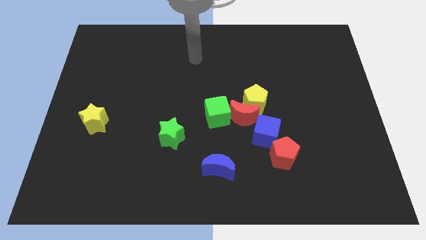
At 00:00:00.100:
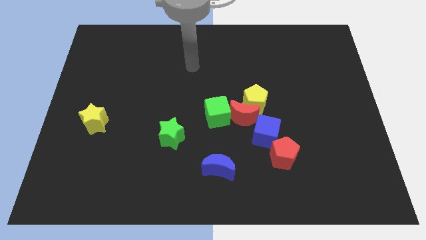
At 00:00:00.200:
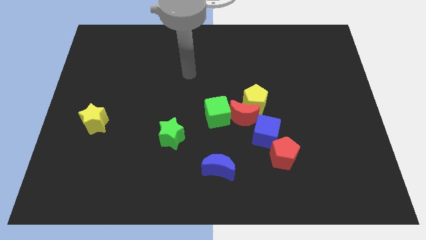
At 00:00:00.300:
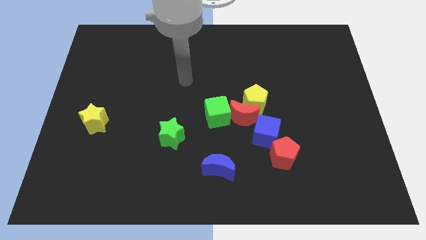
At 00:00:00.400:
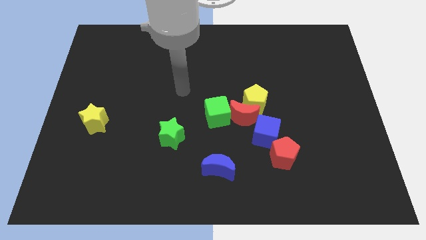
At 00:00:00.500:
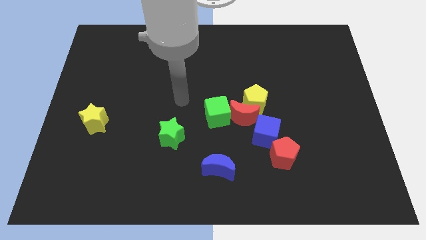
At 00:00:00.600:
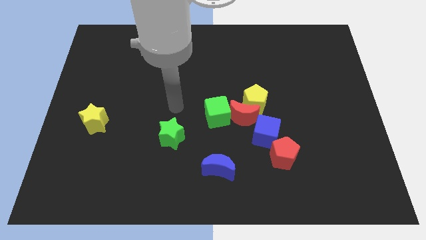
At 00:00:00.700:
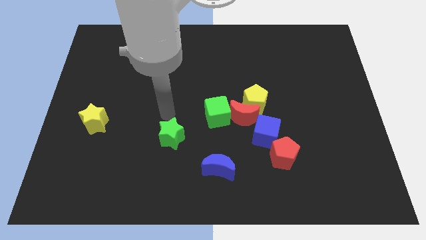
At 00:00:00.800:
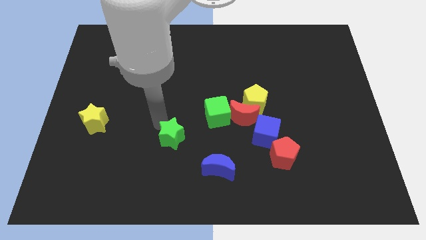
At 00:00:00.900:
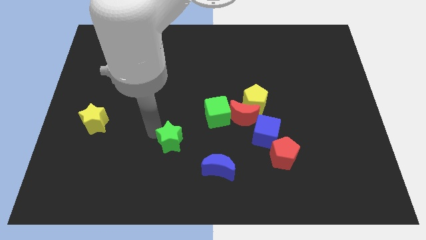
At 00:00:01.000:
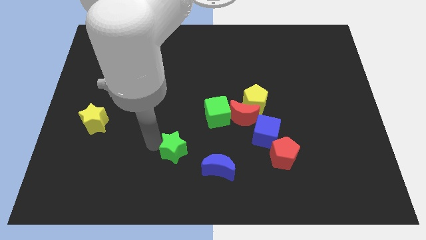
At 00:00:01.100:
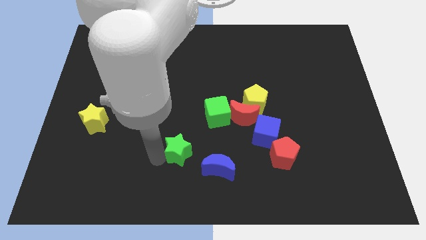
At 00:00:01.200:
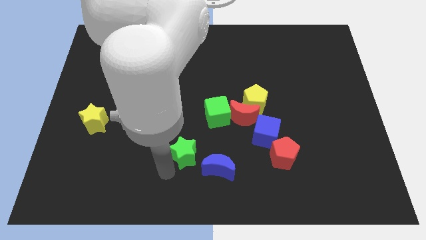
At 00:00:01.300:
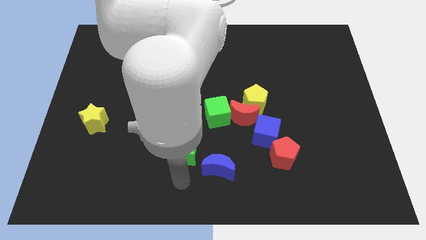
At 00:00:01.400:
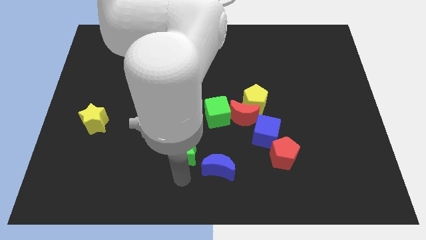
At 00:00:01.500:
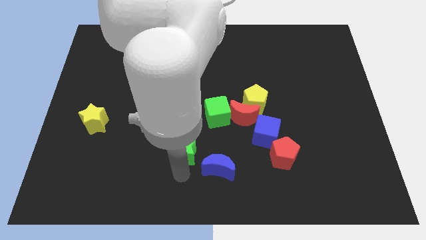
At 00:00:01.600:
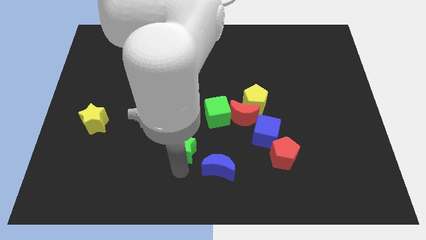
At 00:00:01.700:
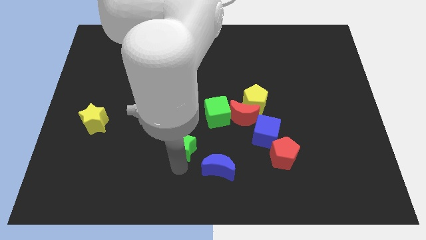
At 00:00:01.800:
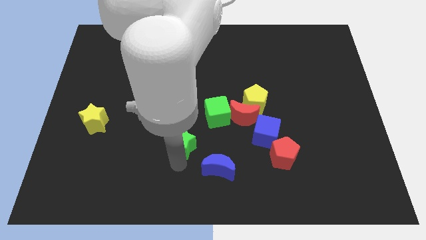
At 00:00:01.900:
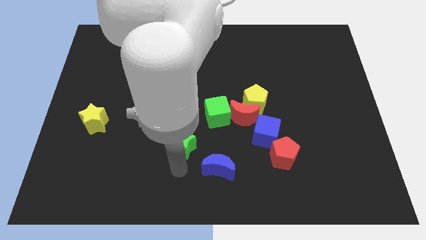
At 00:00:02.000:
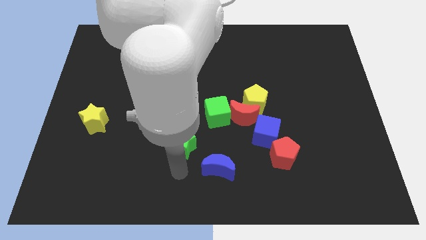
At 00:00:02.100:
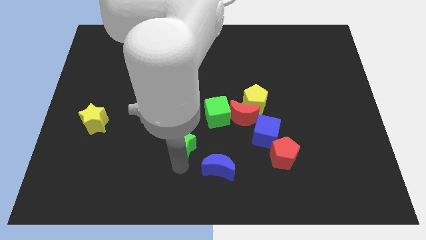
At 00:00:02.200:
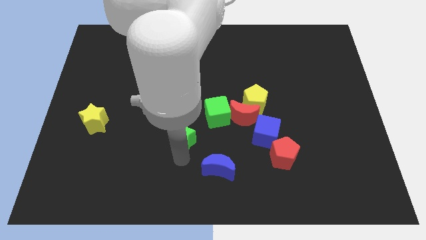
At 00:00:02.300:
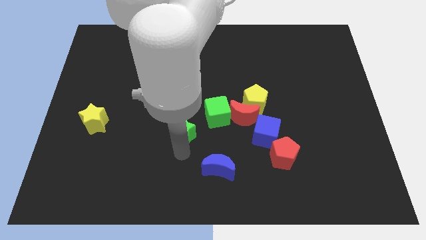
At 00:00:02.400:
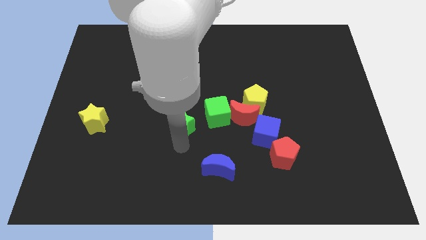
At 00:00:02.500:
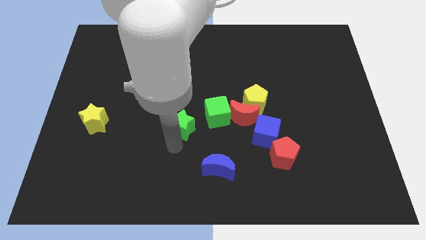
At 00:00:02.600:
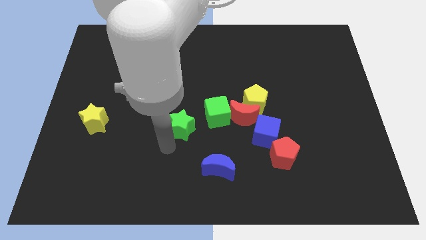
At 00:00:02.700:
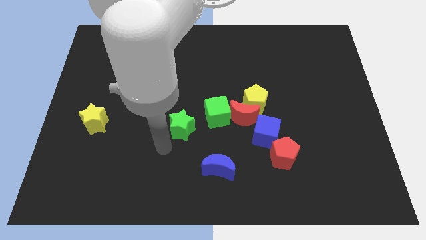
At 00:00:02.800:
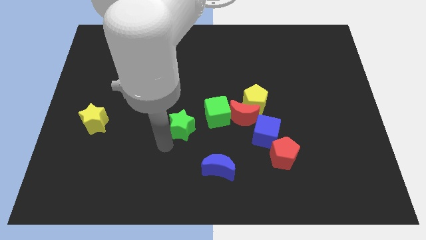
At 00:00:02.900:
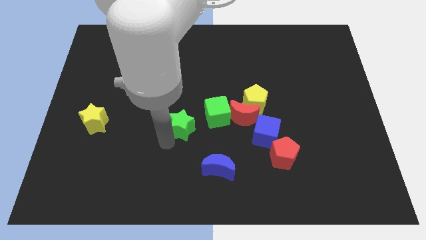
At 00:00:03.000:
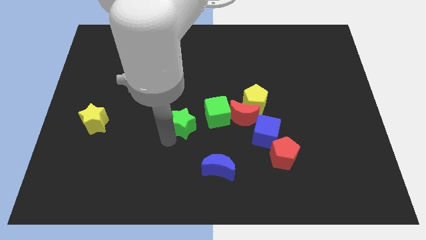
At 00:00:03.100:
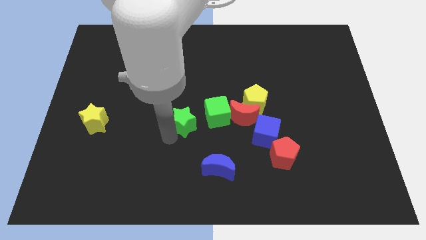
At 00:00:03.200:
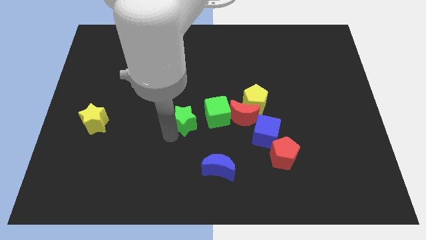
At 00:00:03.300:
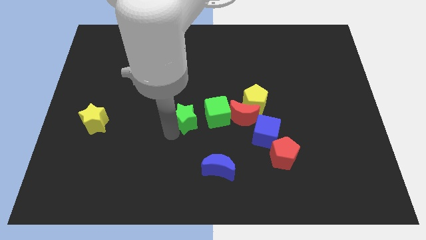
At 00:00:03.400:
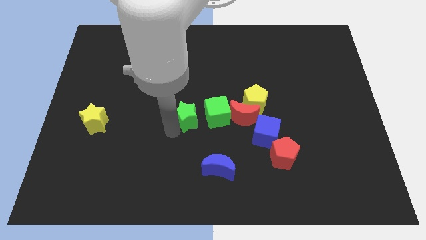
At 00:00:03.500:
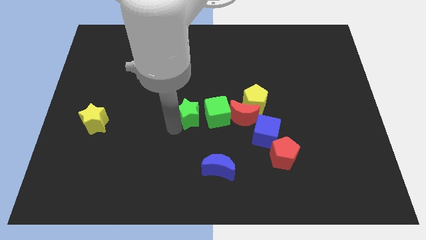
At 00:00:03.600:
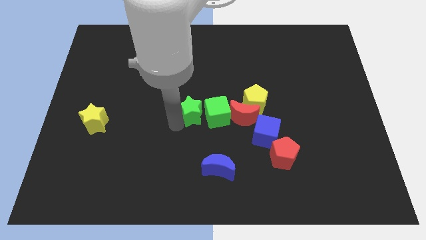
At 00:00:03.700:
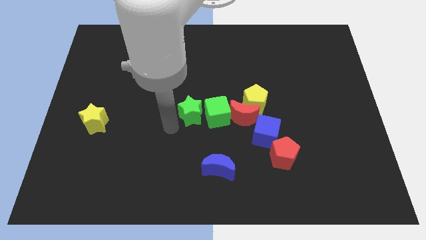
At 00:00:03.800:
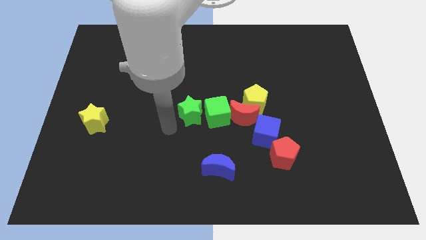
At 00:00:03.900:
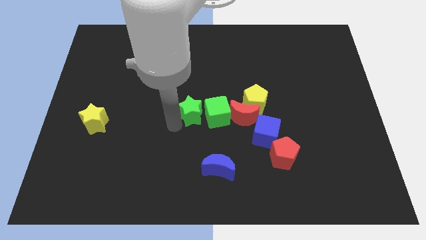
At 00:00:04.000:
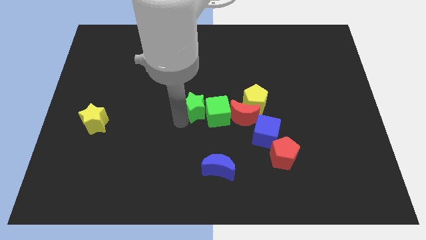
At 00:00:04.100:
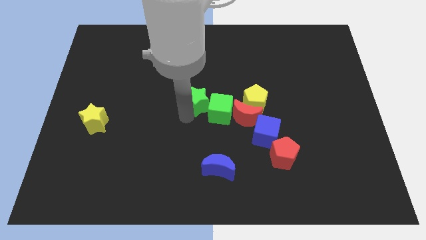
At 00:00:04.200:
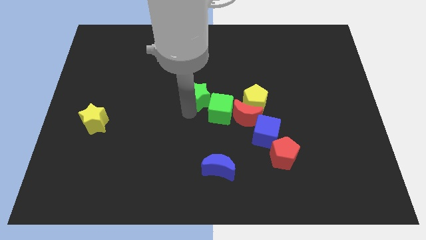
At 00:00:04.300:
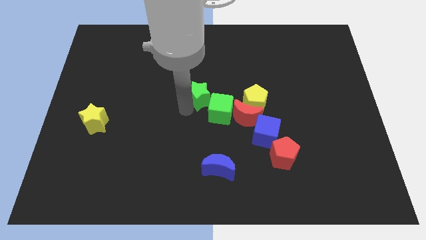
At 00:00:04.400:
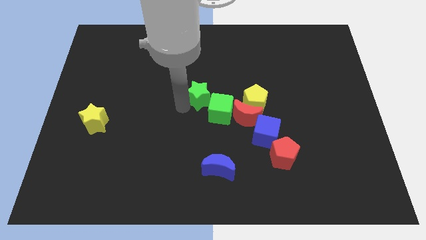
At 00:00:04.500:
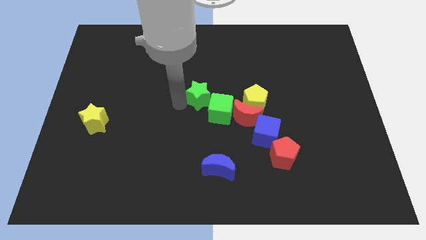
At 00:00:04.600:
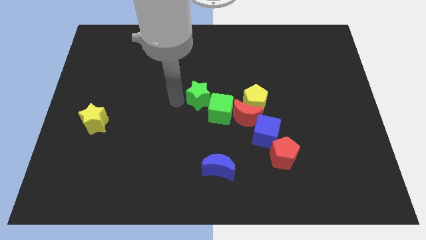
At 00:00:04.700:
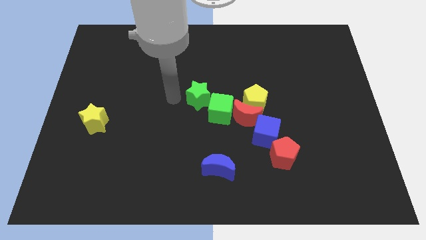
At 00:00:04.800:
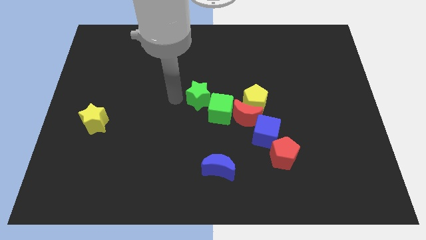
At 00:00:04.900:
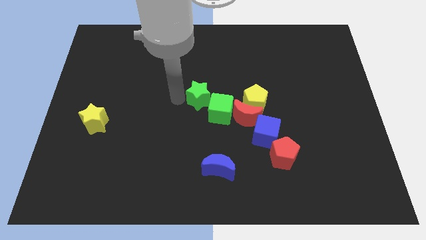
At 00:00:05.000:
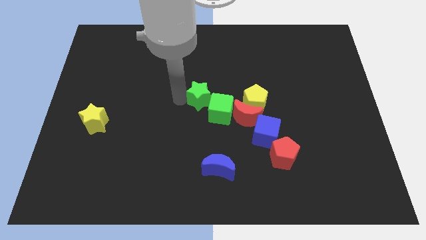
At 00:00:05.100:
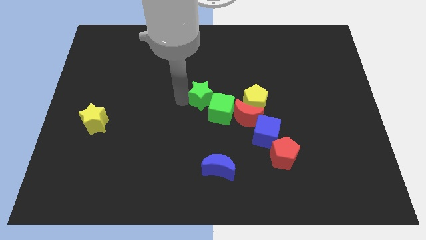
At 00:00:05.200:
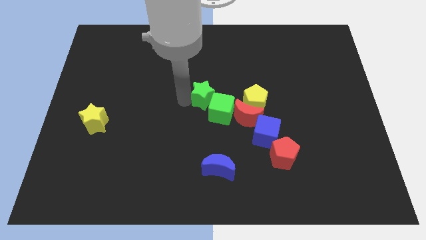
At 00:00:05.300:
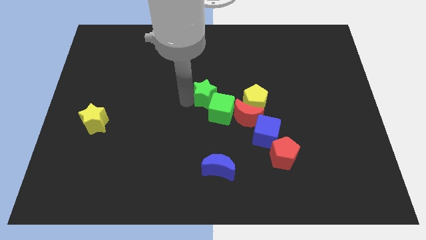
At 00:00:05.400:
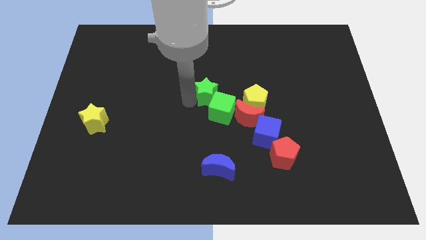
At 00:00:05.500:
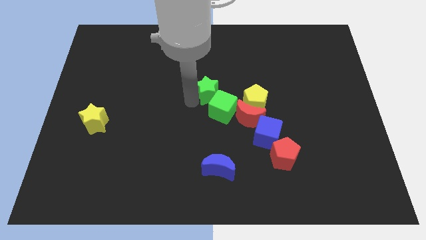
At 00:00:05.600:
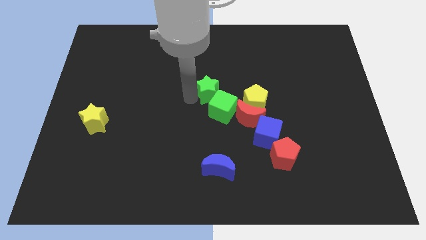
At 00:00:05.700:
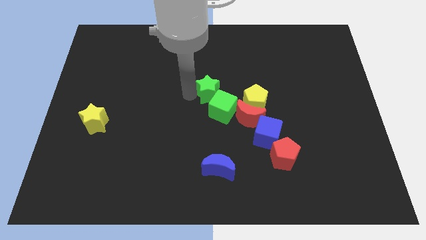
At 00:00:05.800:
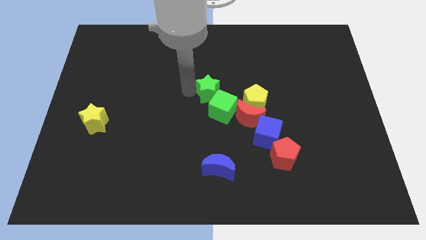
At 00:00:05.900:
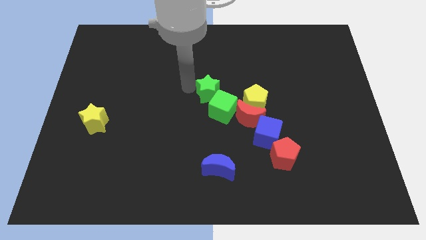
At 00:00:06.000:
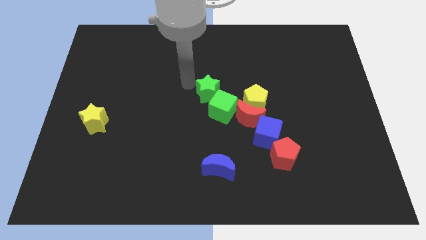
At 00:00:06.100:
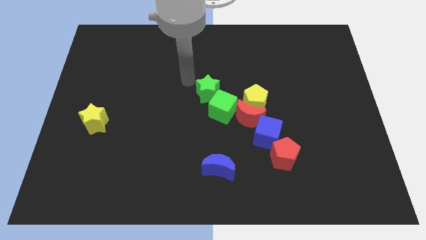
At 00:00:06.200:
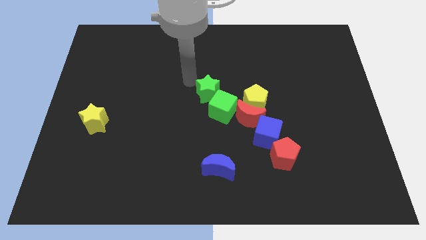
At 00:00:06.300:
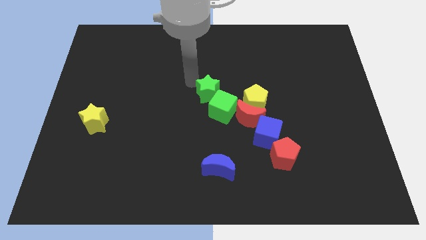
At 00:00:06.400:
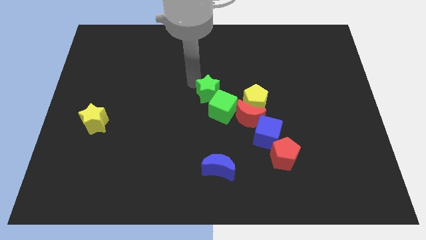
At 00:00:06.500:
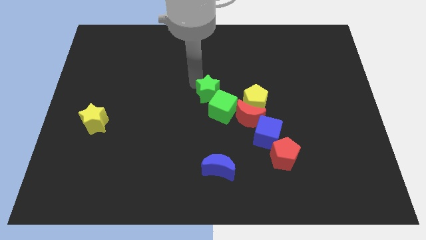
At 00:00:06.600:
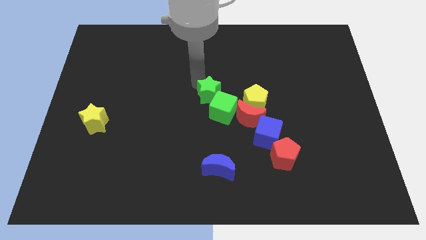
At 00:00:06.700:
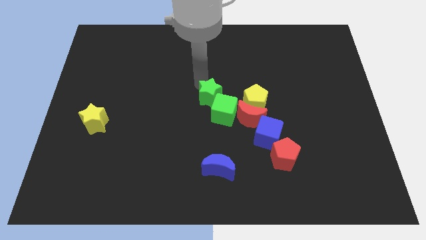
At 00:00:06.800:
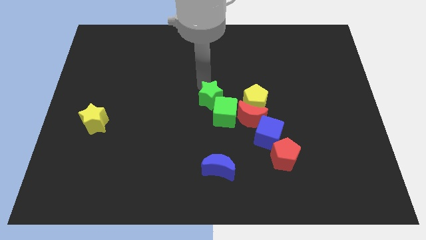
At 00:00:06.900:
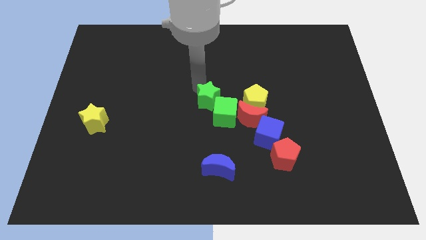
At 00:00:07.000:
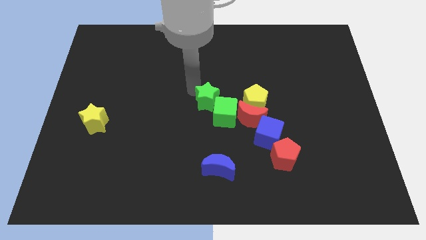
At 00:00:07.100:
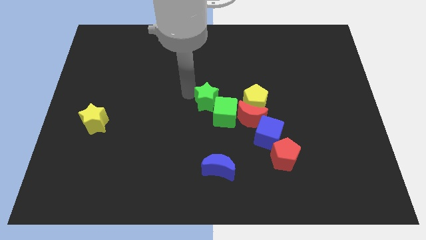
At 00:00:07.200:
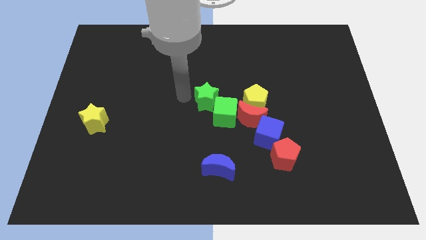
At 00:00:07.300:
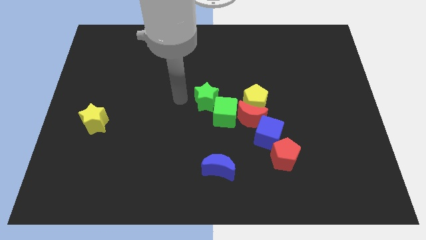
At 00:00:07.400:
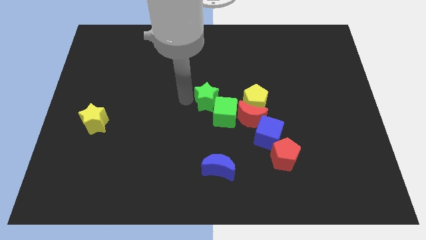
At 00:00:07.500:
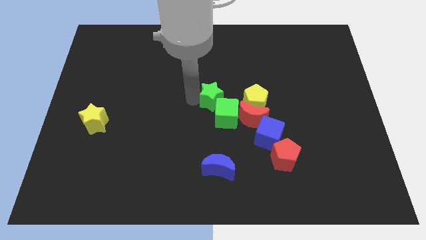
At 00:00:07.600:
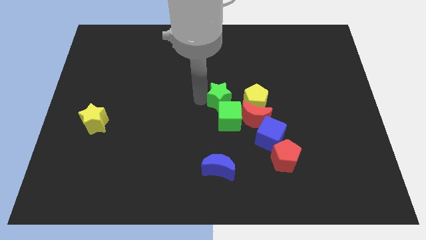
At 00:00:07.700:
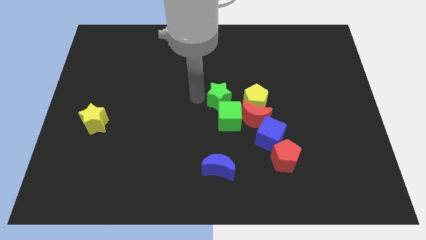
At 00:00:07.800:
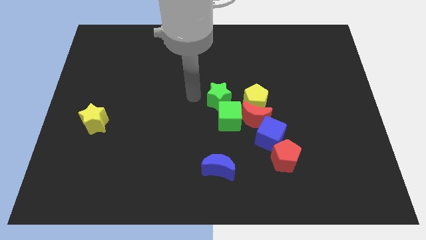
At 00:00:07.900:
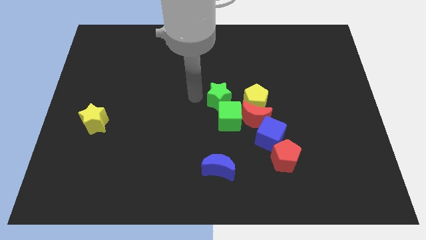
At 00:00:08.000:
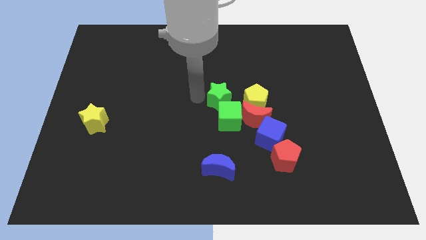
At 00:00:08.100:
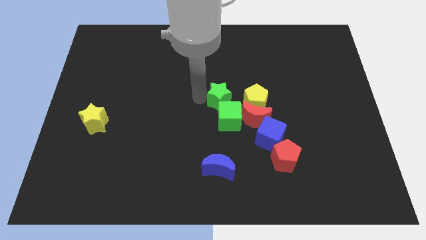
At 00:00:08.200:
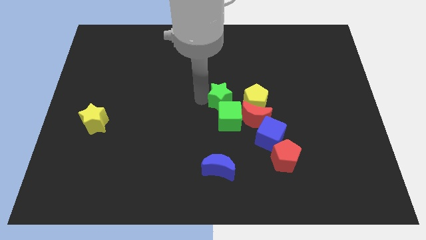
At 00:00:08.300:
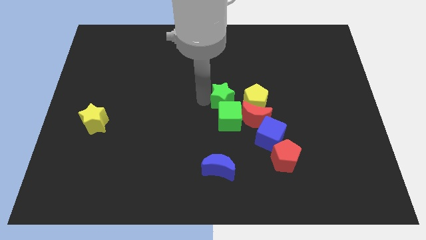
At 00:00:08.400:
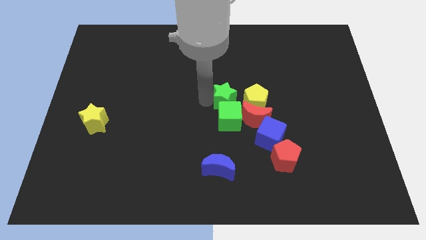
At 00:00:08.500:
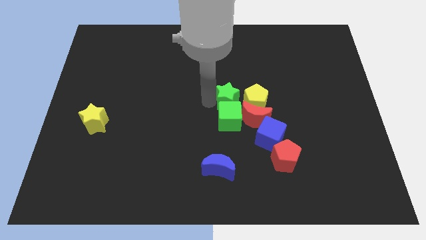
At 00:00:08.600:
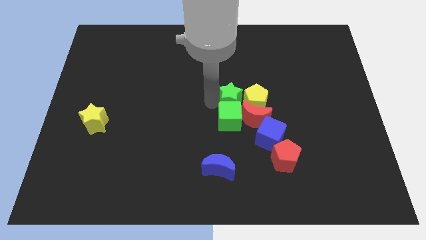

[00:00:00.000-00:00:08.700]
put the green star close to the yellow pentagon
